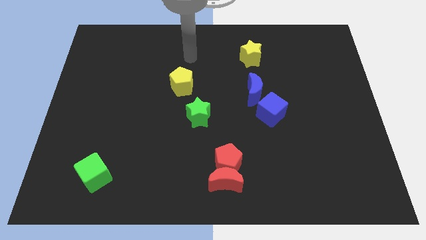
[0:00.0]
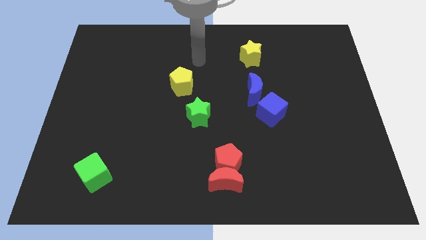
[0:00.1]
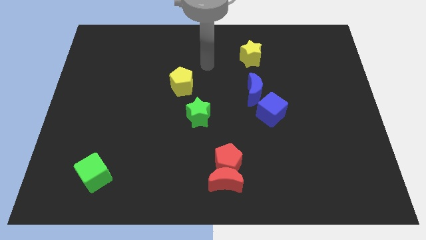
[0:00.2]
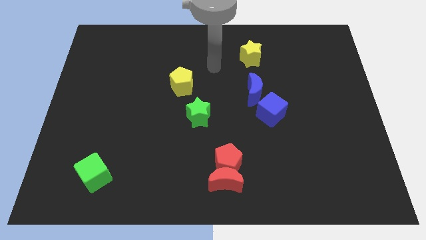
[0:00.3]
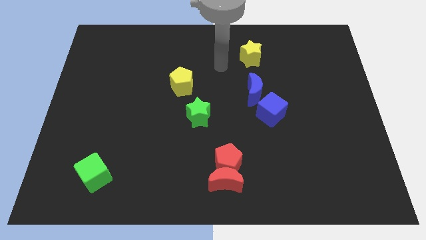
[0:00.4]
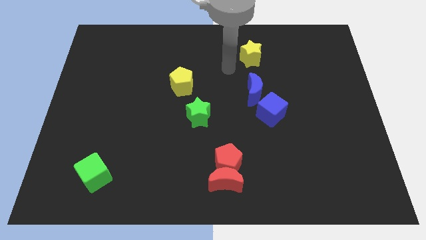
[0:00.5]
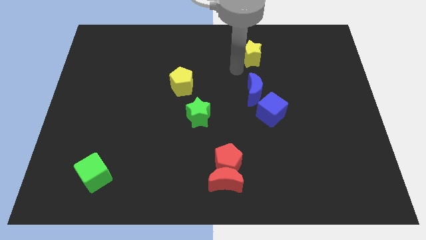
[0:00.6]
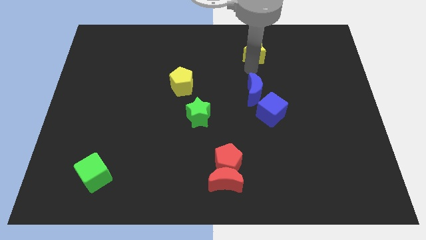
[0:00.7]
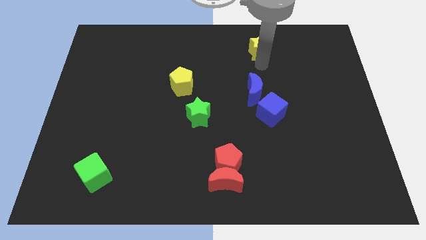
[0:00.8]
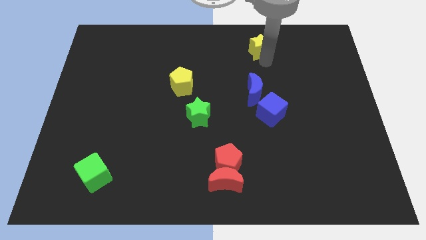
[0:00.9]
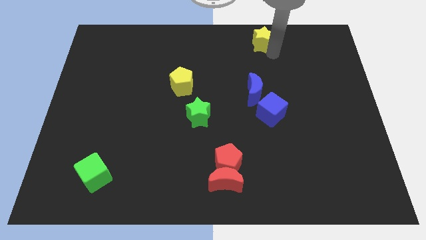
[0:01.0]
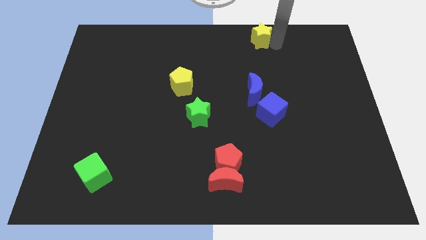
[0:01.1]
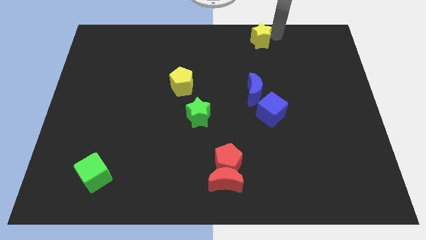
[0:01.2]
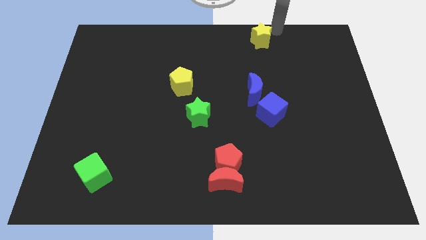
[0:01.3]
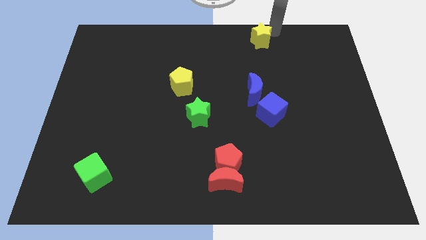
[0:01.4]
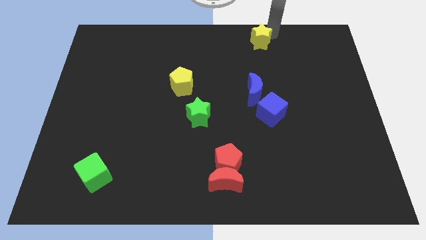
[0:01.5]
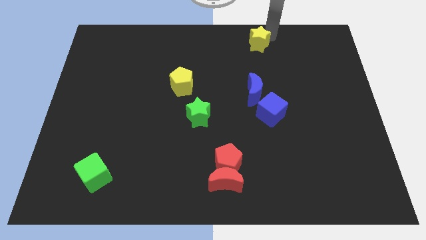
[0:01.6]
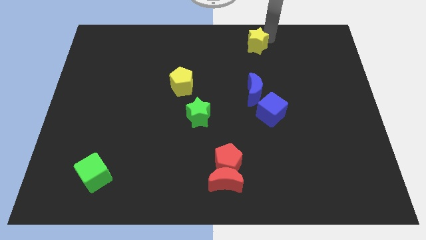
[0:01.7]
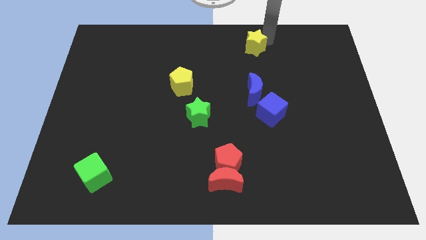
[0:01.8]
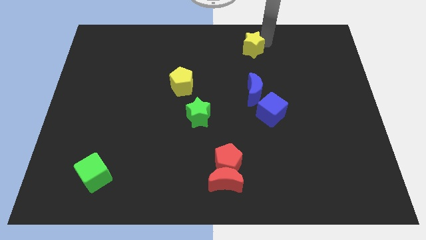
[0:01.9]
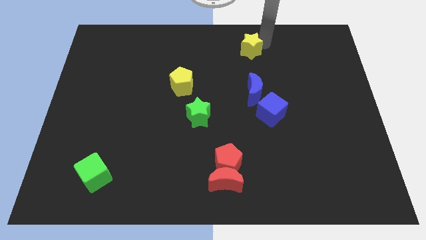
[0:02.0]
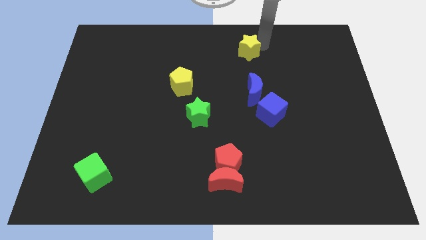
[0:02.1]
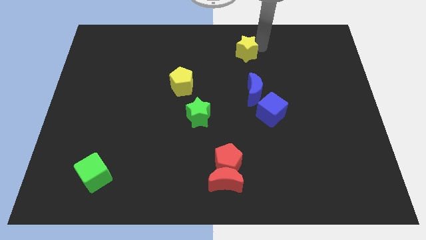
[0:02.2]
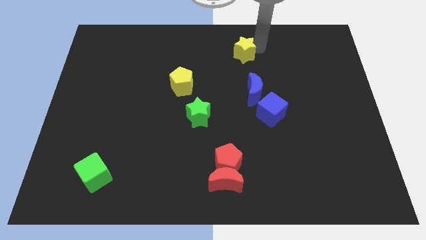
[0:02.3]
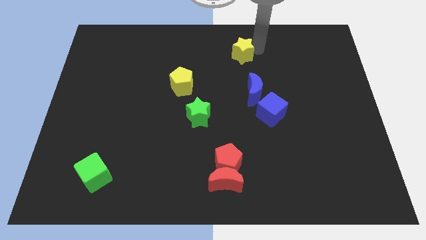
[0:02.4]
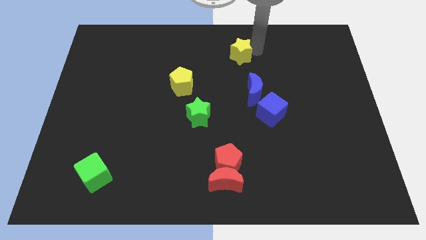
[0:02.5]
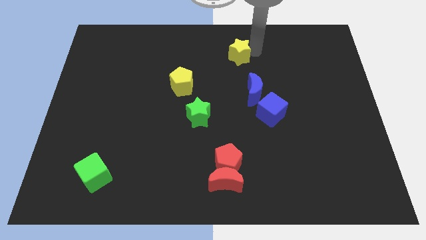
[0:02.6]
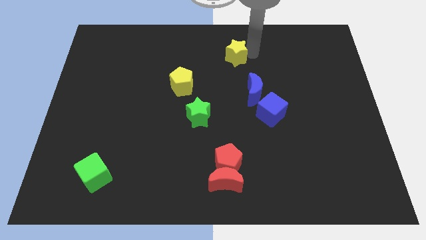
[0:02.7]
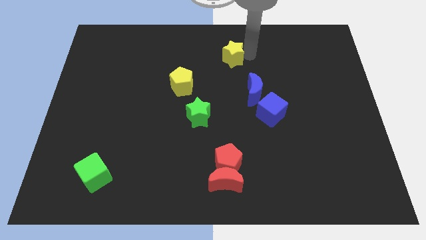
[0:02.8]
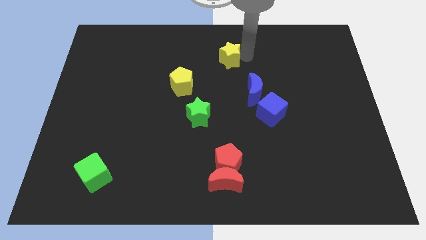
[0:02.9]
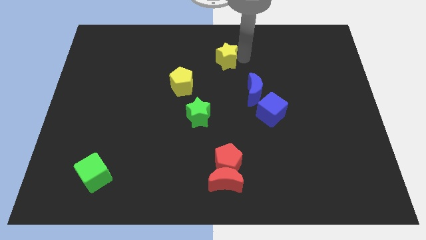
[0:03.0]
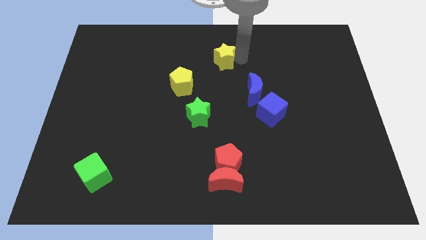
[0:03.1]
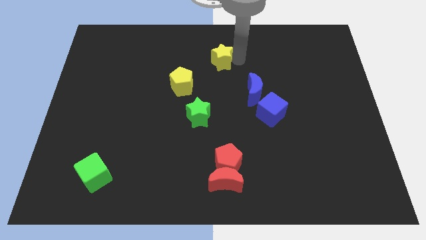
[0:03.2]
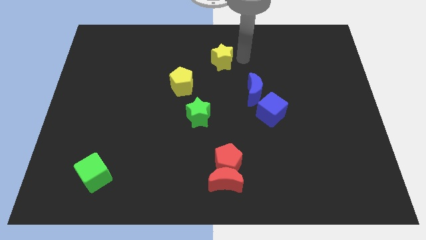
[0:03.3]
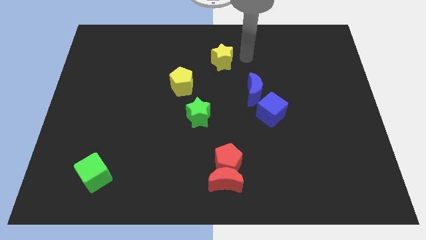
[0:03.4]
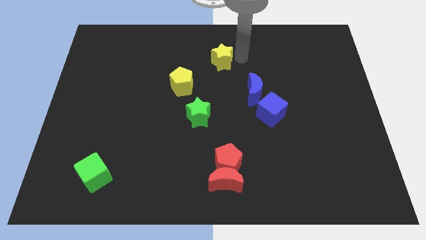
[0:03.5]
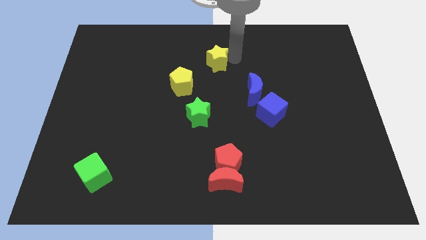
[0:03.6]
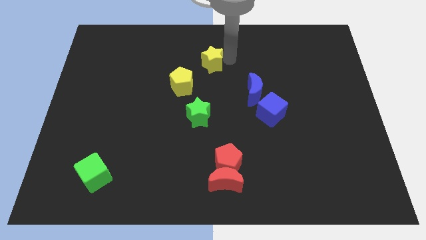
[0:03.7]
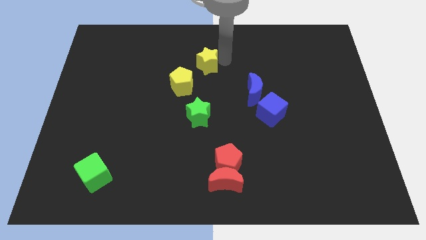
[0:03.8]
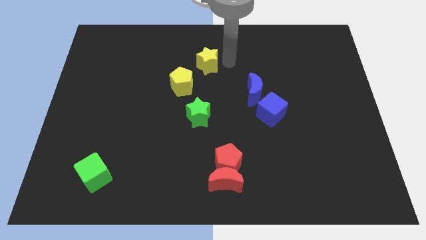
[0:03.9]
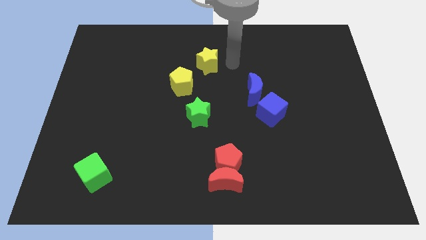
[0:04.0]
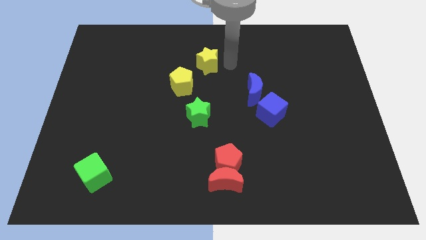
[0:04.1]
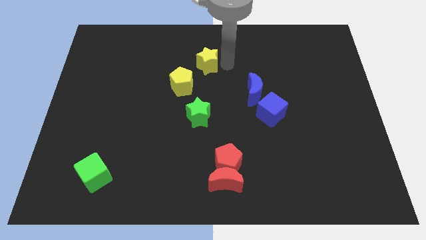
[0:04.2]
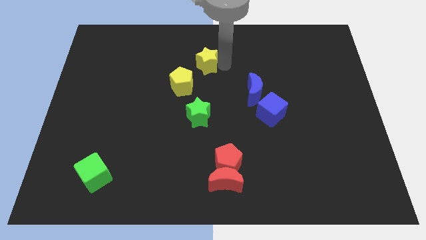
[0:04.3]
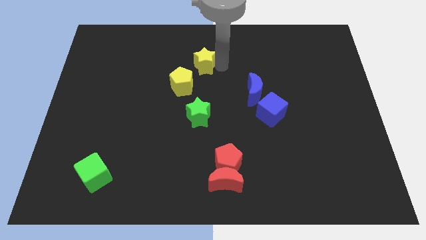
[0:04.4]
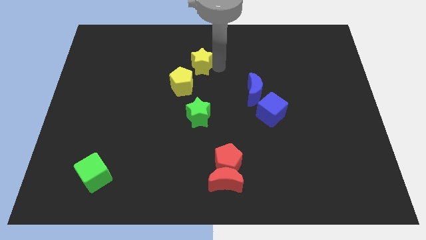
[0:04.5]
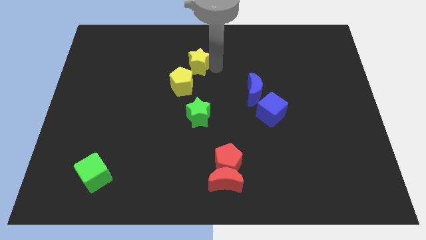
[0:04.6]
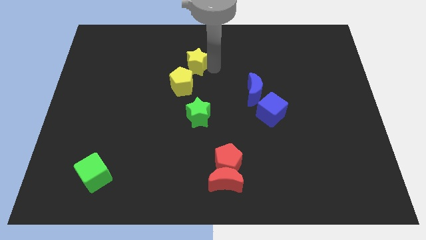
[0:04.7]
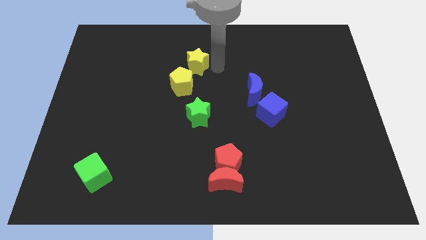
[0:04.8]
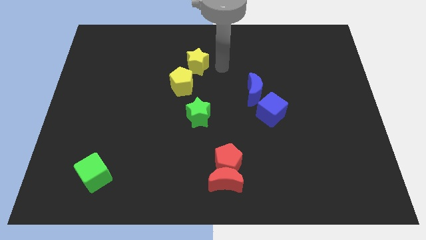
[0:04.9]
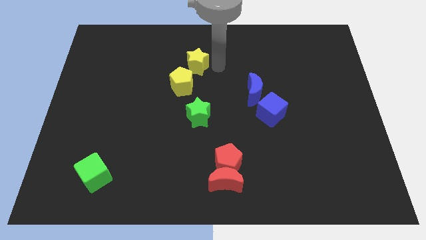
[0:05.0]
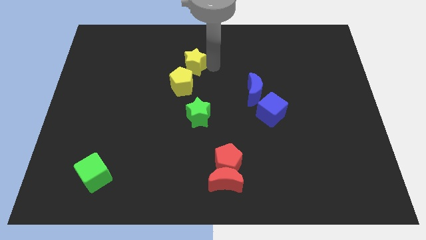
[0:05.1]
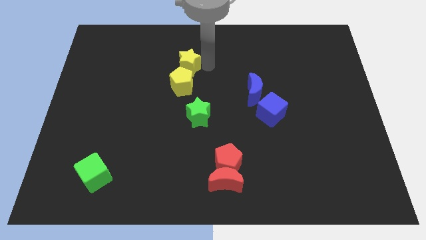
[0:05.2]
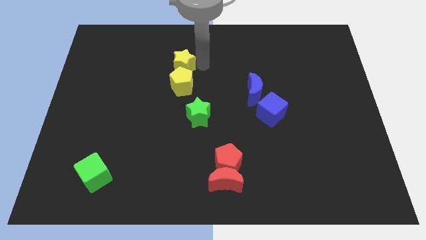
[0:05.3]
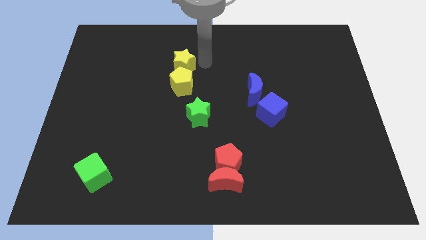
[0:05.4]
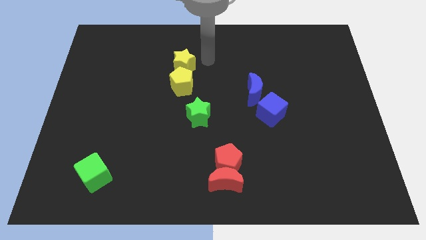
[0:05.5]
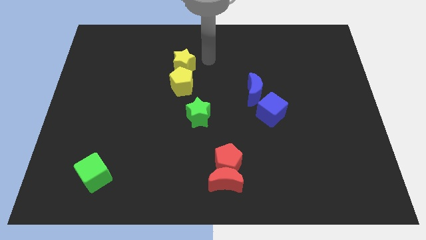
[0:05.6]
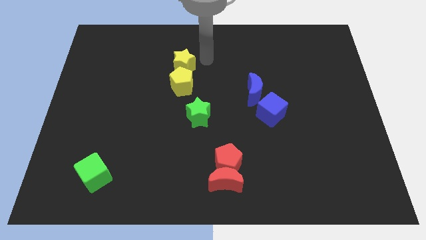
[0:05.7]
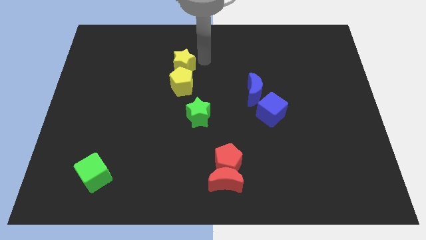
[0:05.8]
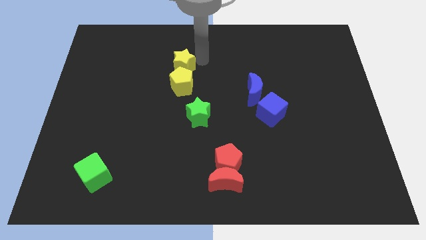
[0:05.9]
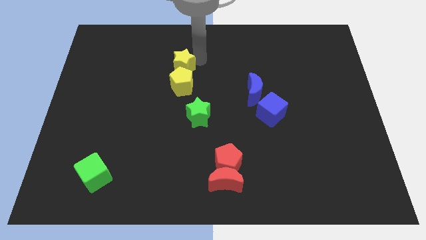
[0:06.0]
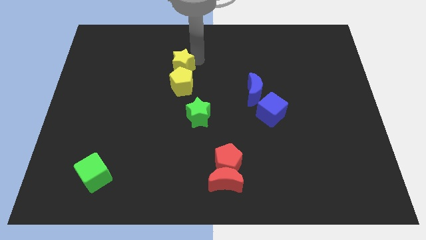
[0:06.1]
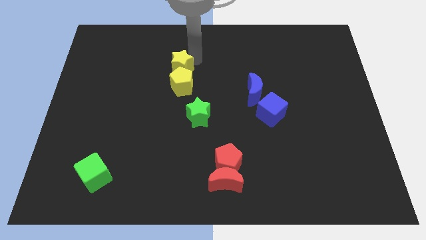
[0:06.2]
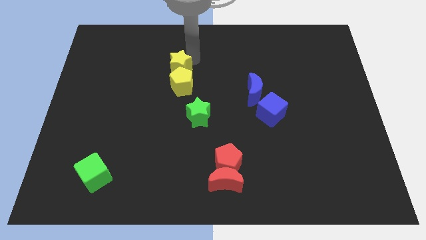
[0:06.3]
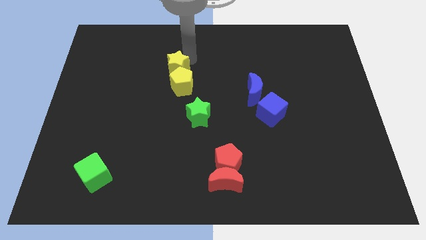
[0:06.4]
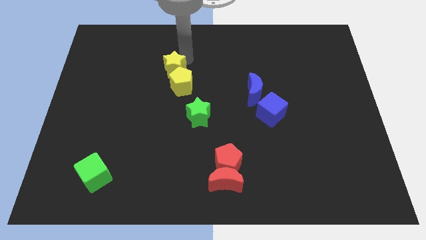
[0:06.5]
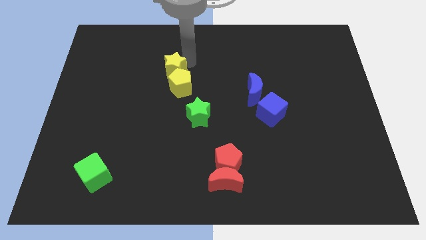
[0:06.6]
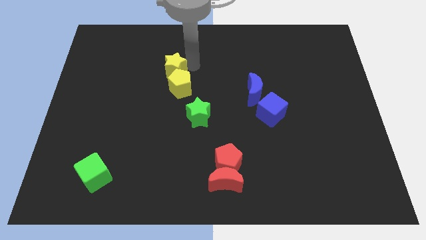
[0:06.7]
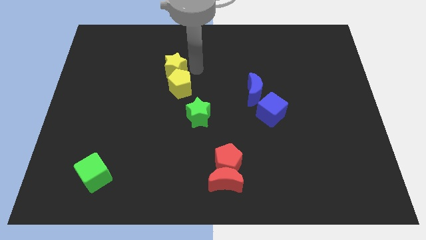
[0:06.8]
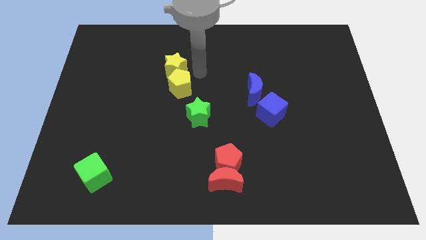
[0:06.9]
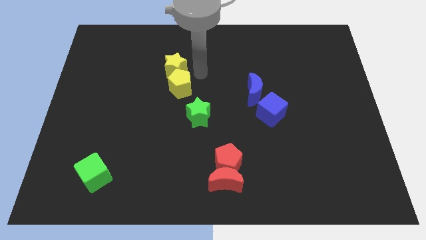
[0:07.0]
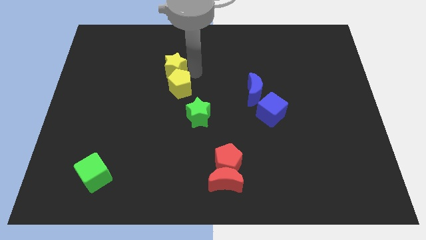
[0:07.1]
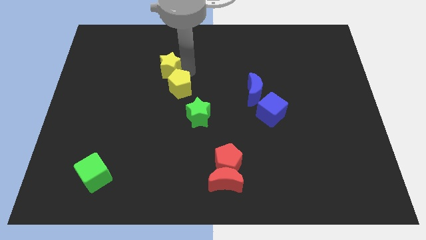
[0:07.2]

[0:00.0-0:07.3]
slide the yellow star left

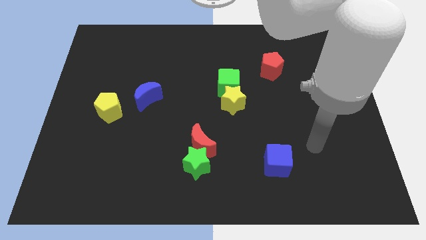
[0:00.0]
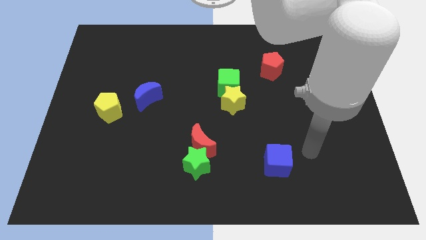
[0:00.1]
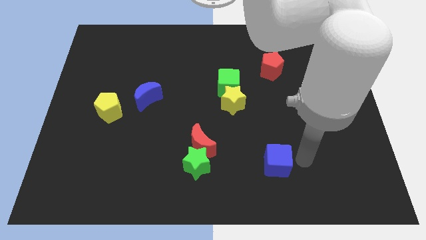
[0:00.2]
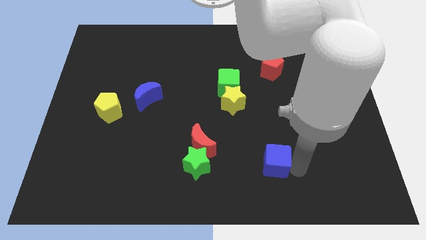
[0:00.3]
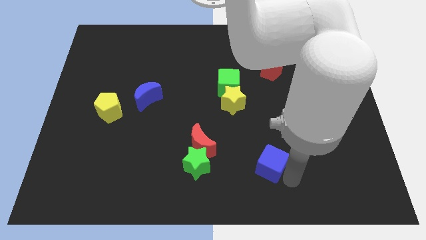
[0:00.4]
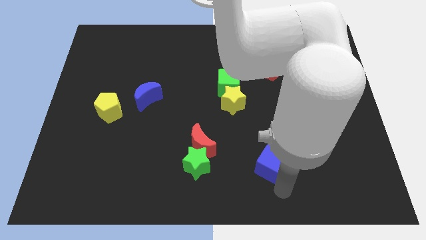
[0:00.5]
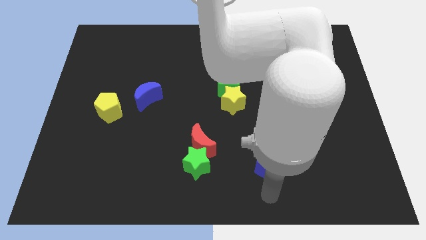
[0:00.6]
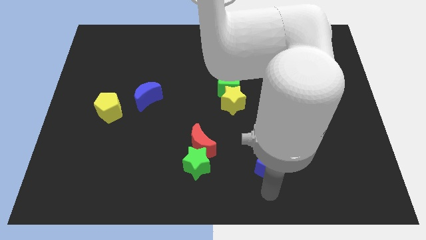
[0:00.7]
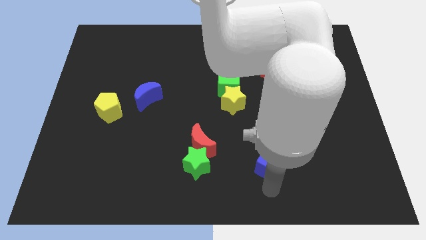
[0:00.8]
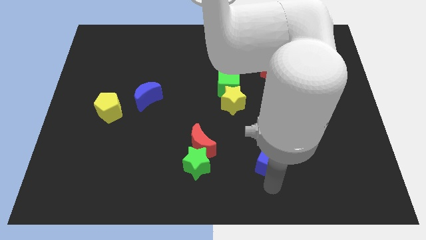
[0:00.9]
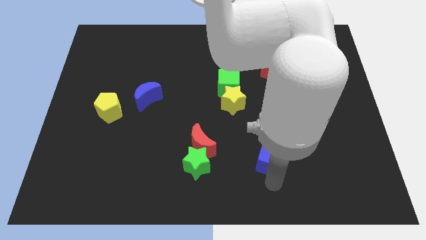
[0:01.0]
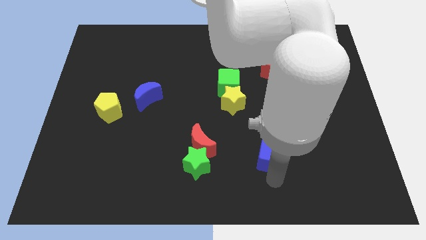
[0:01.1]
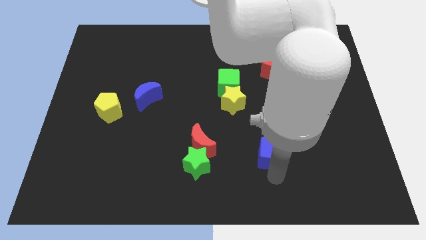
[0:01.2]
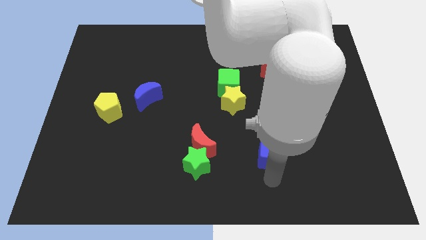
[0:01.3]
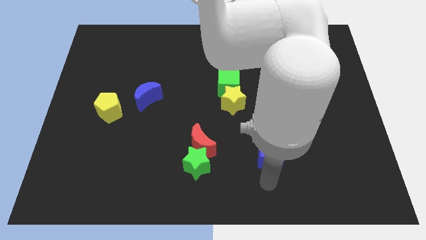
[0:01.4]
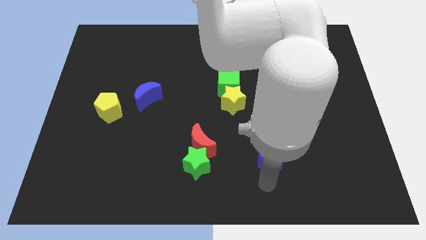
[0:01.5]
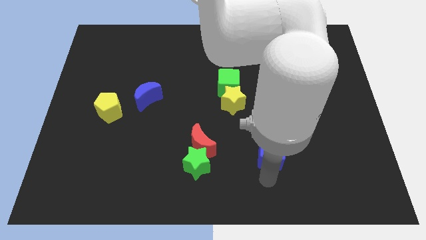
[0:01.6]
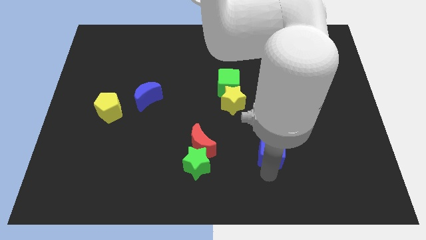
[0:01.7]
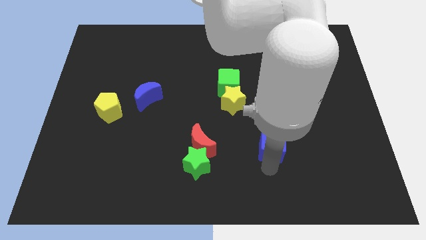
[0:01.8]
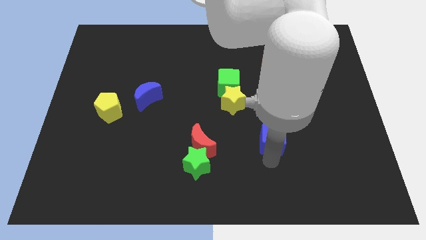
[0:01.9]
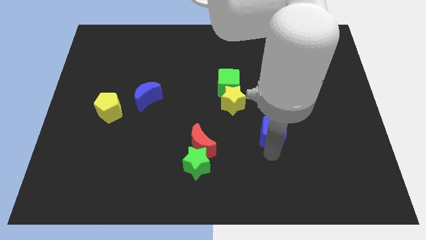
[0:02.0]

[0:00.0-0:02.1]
slightly slide the blue cube up
